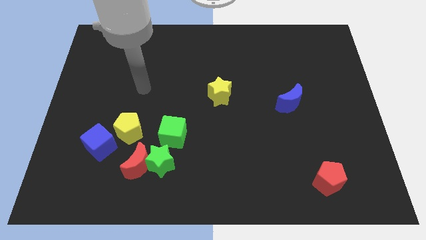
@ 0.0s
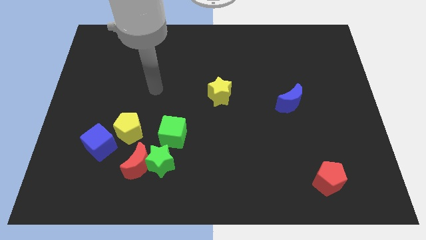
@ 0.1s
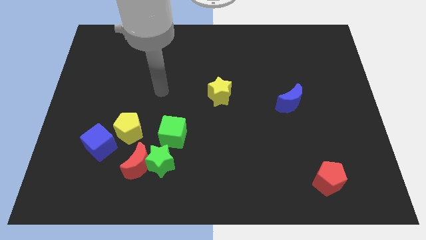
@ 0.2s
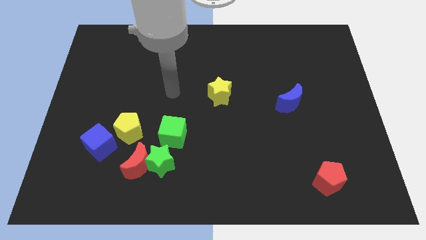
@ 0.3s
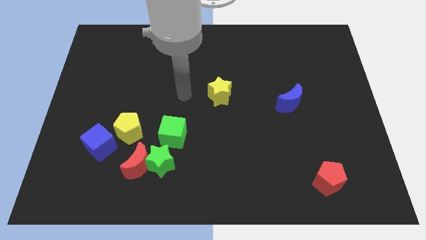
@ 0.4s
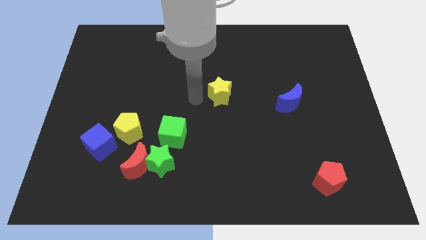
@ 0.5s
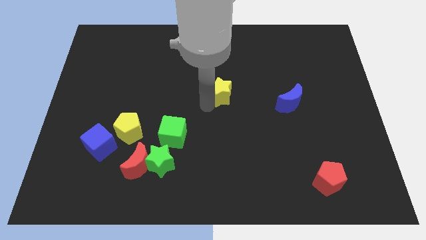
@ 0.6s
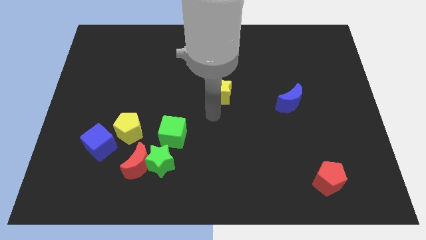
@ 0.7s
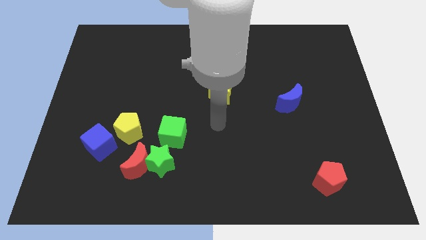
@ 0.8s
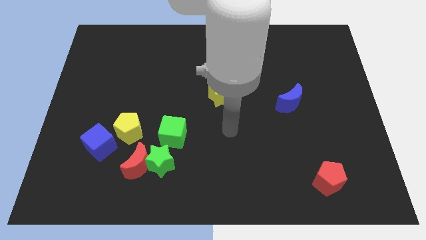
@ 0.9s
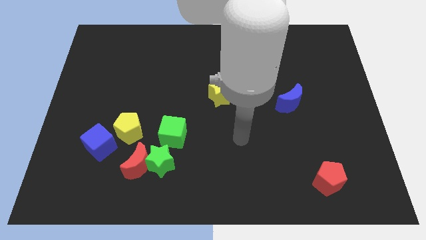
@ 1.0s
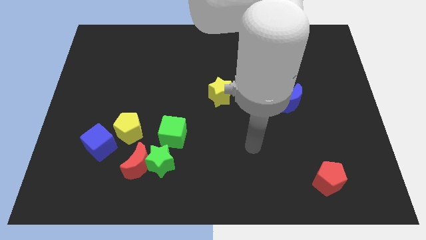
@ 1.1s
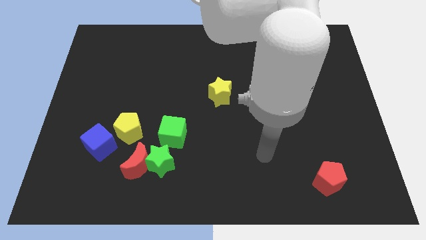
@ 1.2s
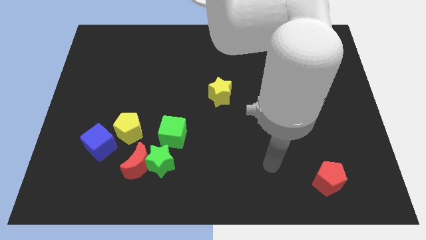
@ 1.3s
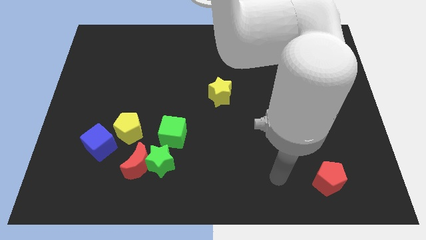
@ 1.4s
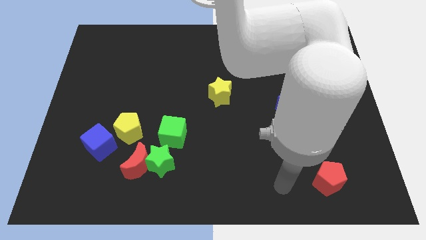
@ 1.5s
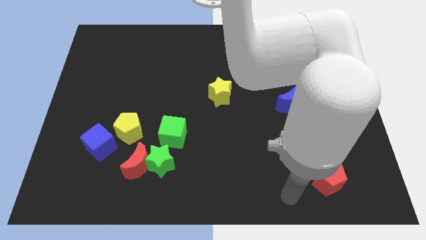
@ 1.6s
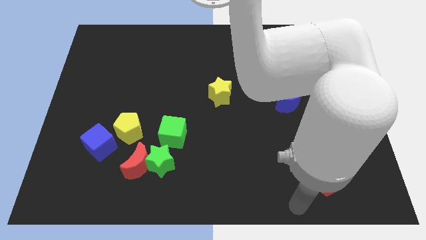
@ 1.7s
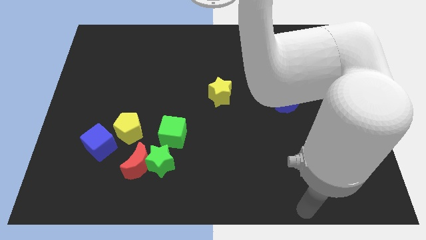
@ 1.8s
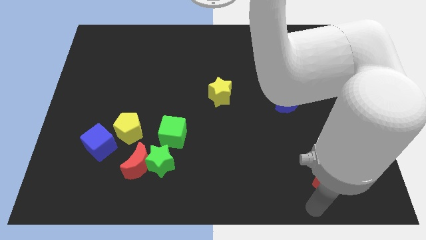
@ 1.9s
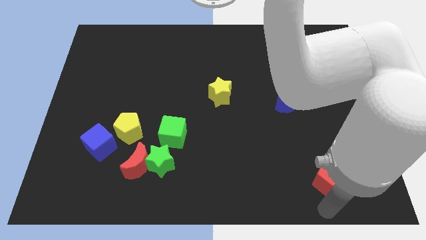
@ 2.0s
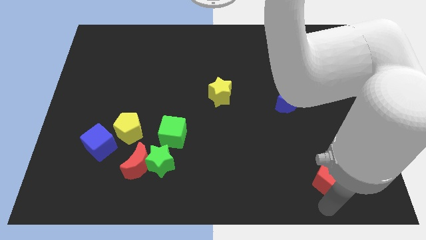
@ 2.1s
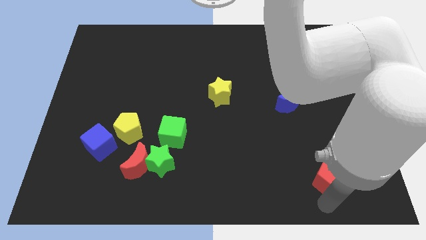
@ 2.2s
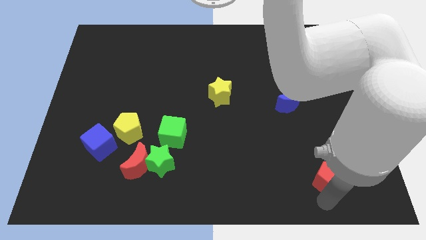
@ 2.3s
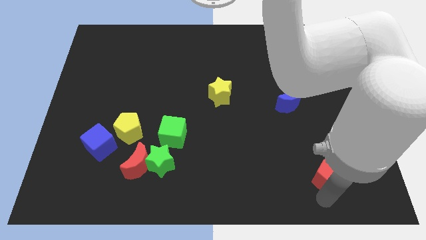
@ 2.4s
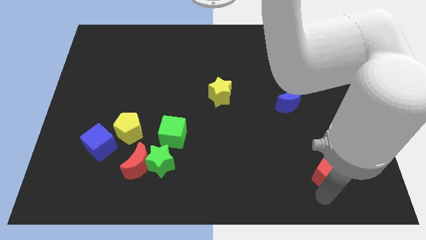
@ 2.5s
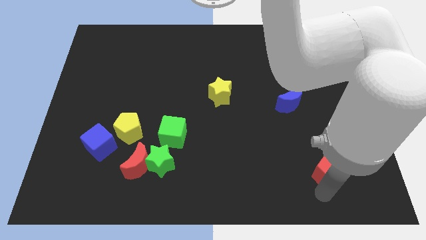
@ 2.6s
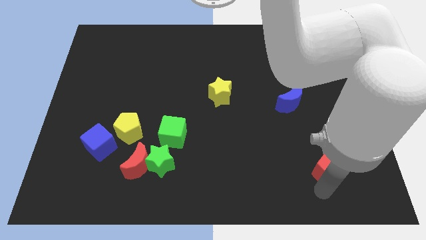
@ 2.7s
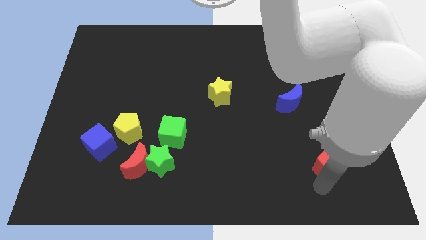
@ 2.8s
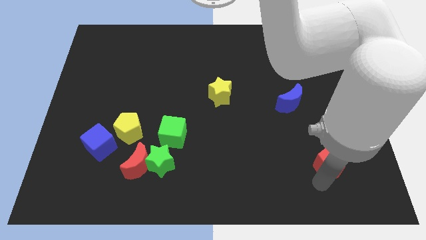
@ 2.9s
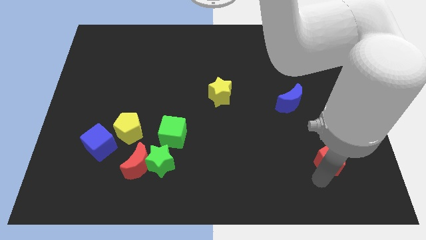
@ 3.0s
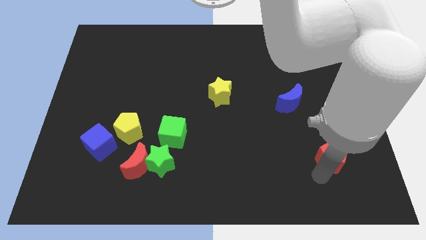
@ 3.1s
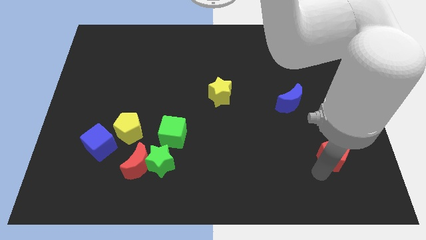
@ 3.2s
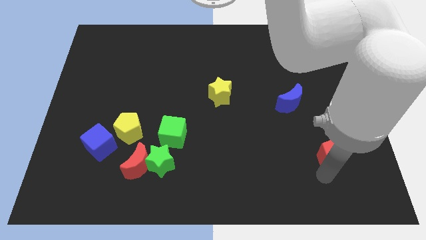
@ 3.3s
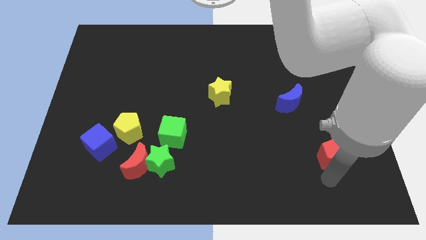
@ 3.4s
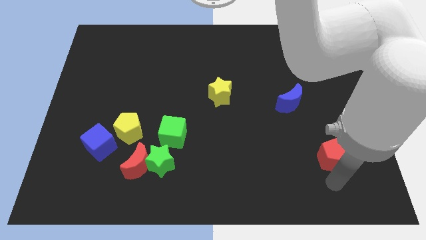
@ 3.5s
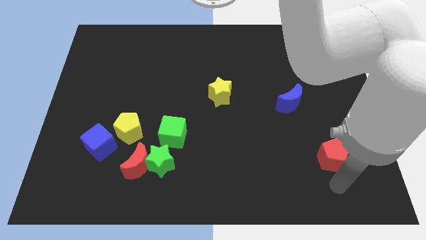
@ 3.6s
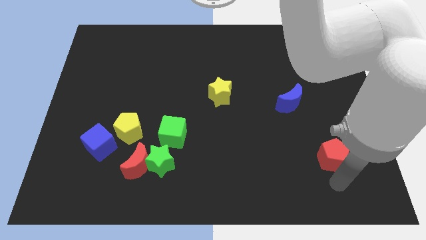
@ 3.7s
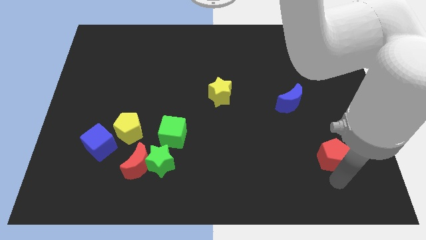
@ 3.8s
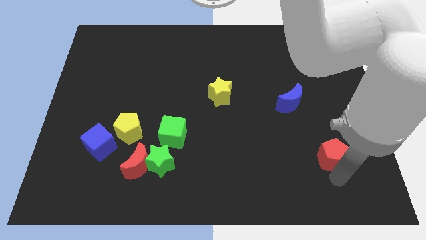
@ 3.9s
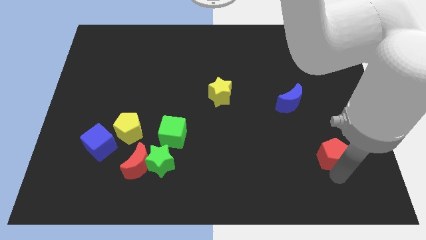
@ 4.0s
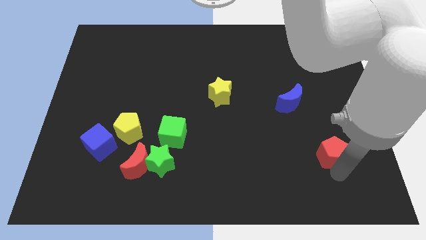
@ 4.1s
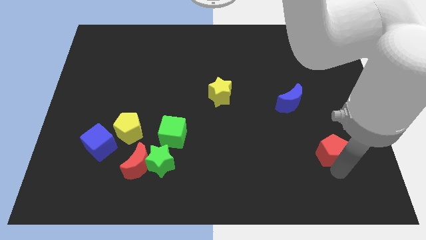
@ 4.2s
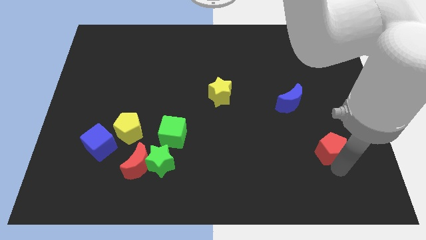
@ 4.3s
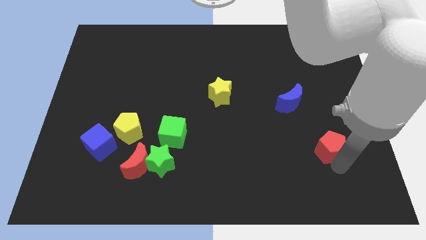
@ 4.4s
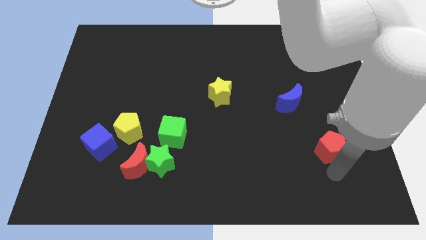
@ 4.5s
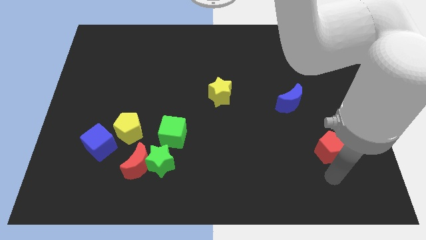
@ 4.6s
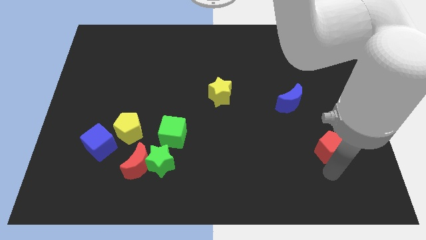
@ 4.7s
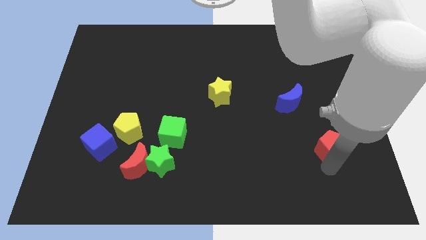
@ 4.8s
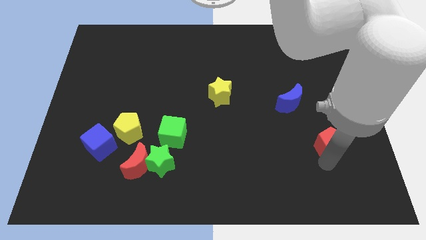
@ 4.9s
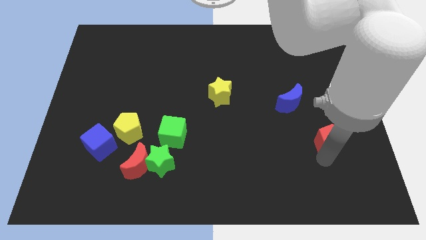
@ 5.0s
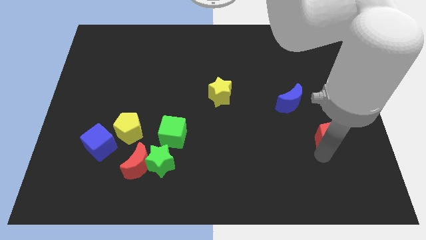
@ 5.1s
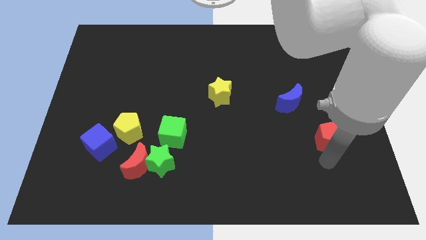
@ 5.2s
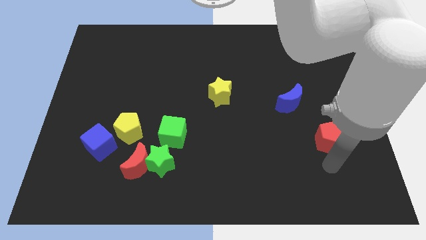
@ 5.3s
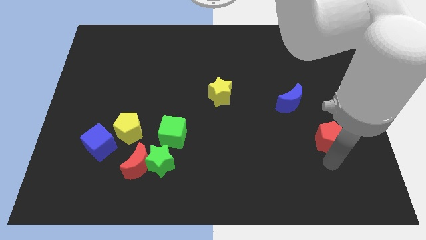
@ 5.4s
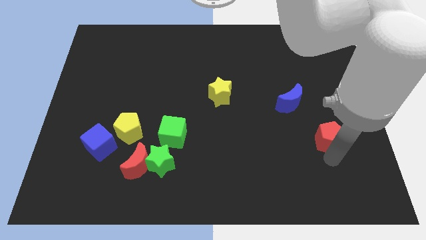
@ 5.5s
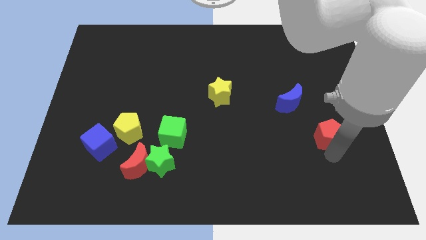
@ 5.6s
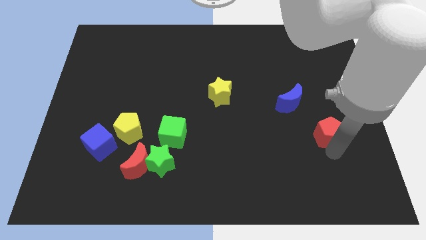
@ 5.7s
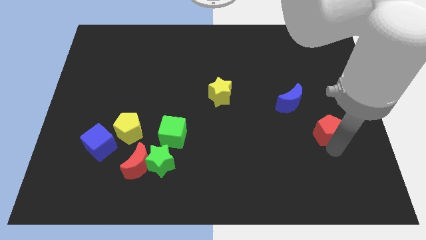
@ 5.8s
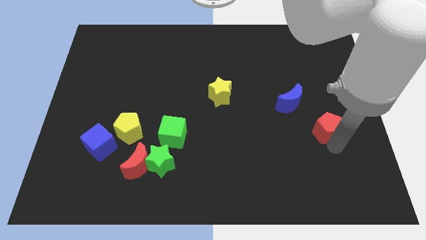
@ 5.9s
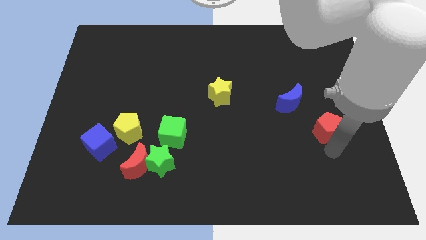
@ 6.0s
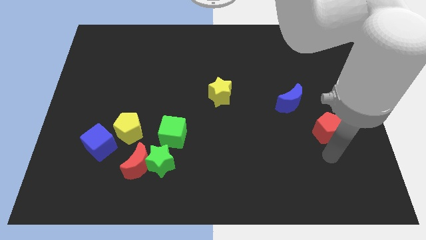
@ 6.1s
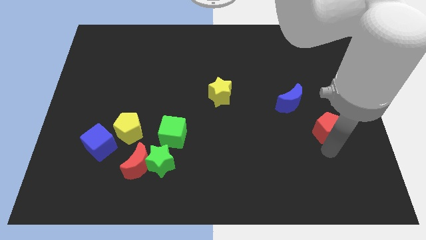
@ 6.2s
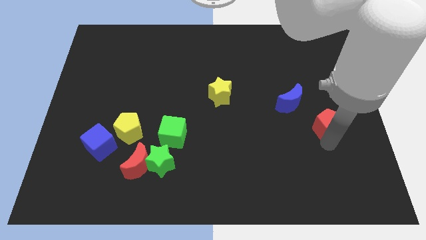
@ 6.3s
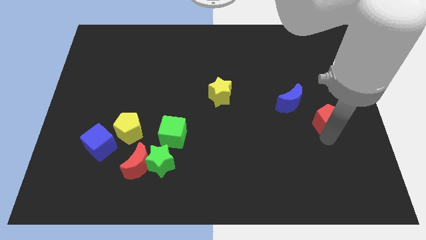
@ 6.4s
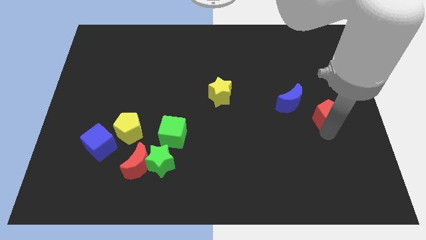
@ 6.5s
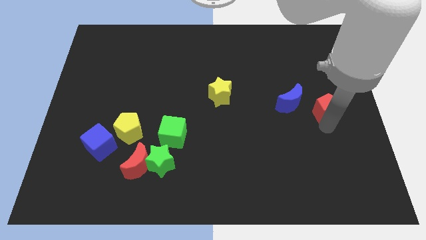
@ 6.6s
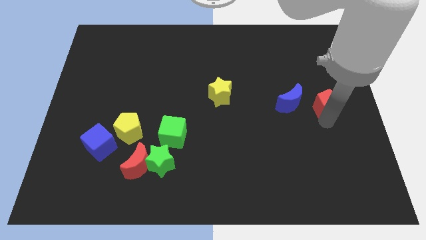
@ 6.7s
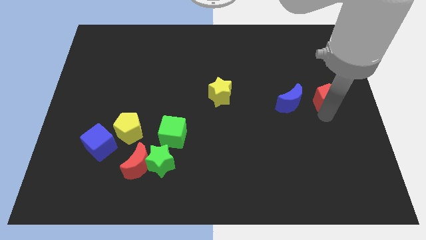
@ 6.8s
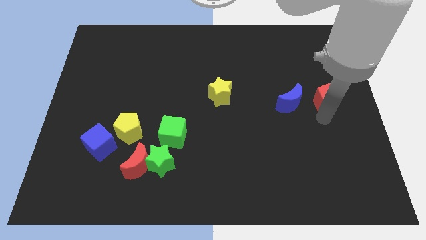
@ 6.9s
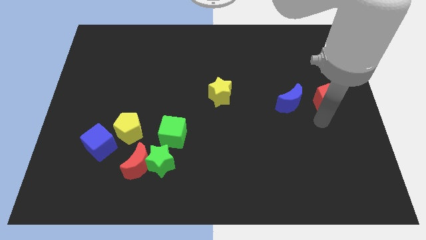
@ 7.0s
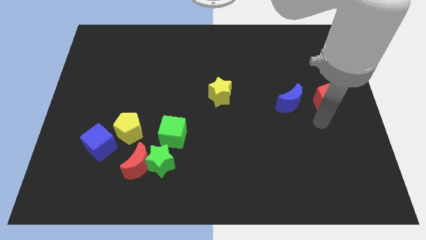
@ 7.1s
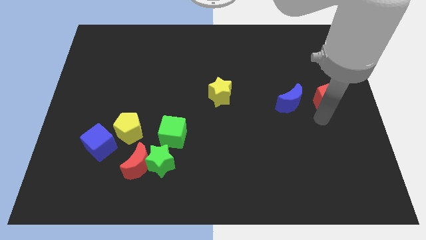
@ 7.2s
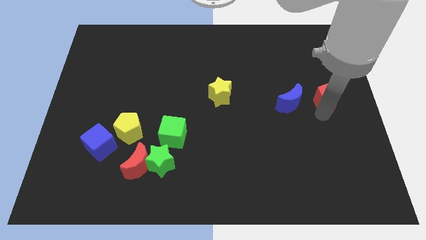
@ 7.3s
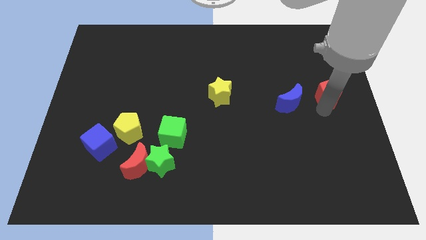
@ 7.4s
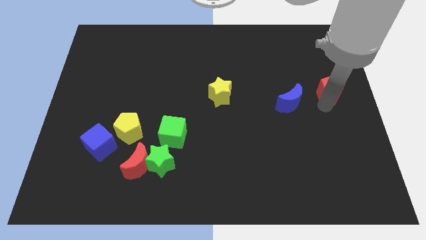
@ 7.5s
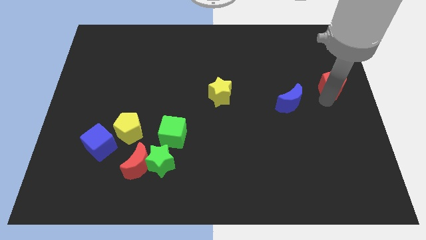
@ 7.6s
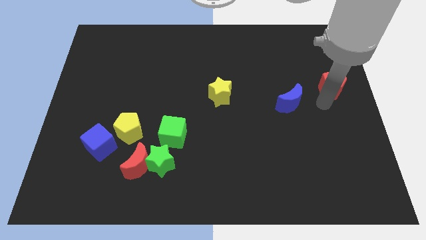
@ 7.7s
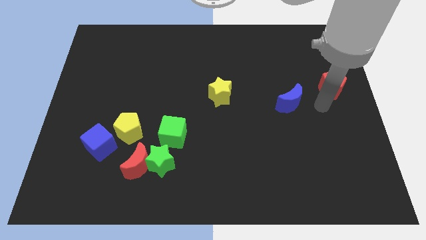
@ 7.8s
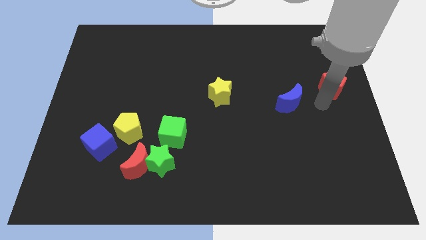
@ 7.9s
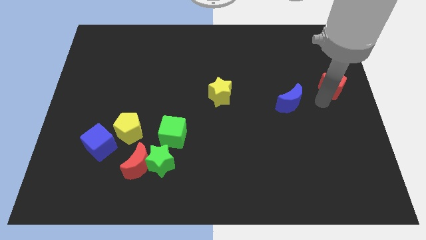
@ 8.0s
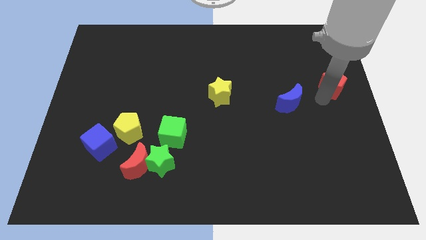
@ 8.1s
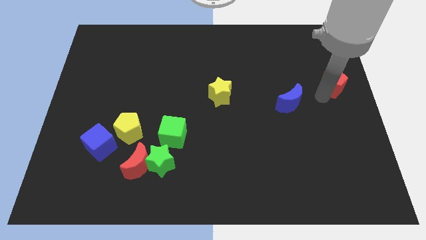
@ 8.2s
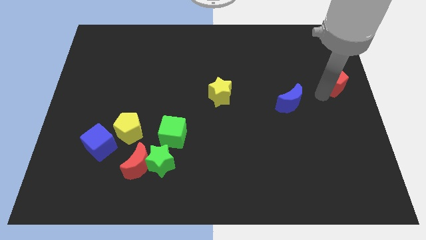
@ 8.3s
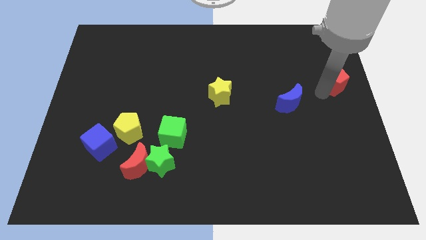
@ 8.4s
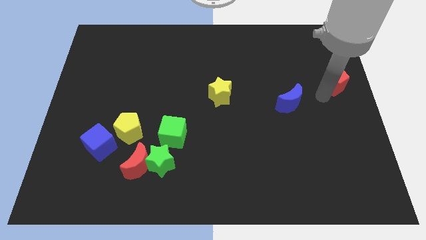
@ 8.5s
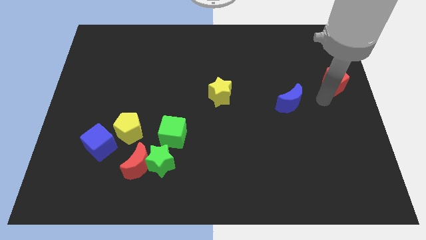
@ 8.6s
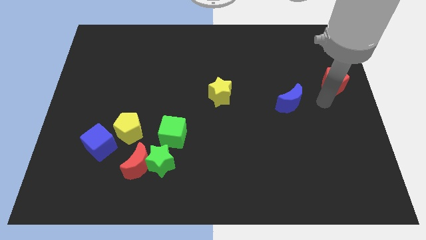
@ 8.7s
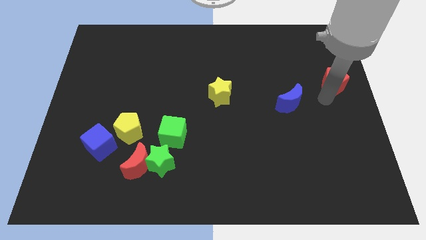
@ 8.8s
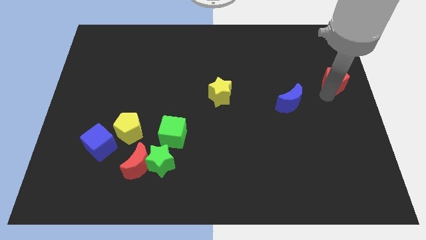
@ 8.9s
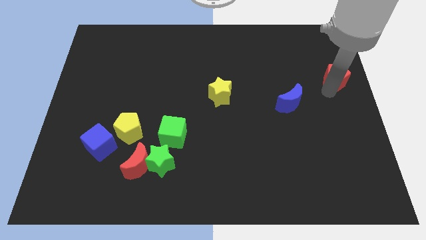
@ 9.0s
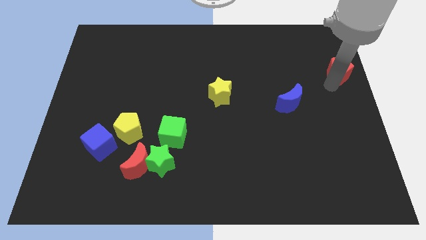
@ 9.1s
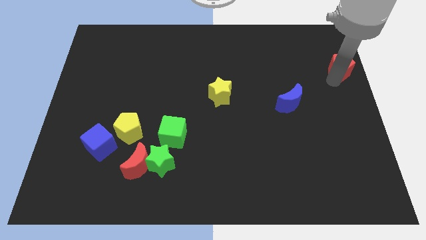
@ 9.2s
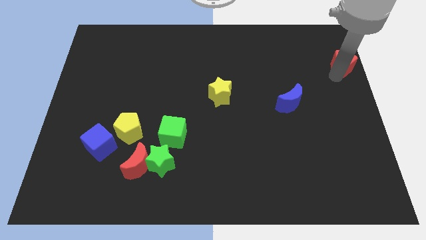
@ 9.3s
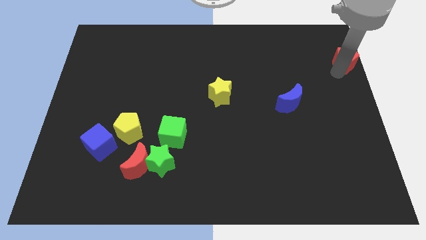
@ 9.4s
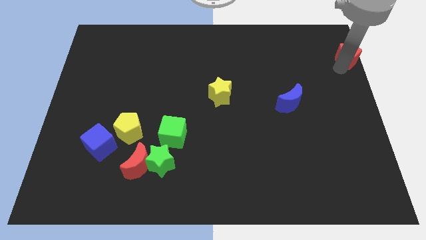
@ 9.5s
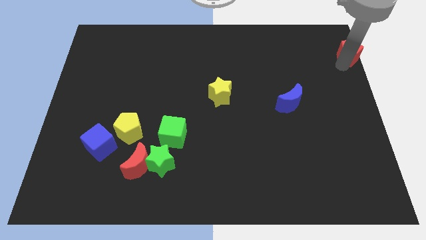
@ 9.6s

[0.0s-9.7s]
slide the red pentagon to the top right corner
